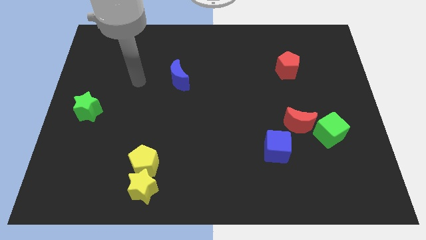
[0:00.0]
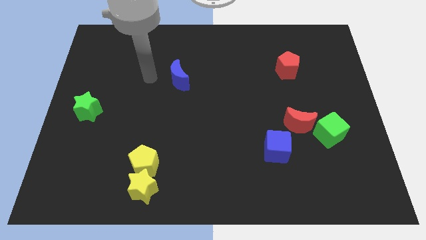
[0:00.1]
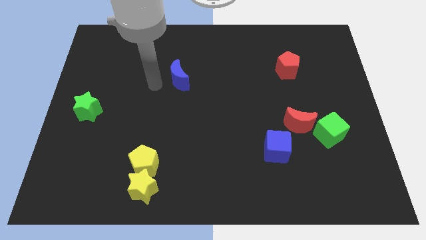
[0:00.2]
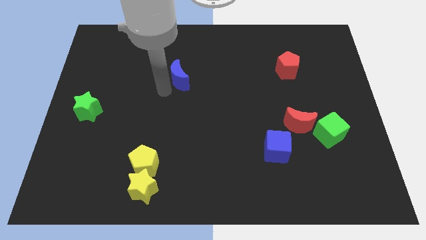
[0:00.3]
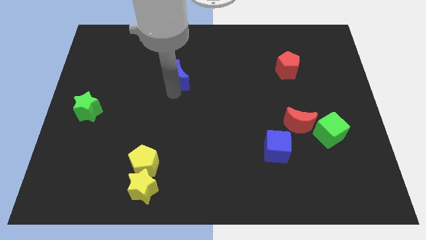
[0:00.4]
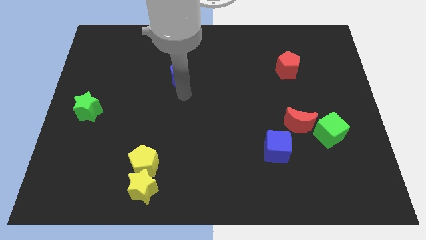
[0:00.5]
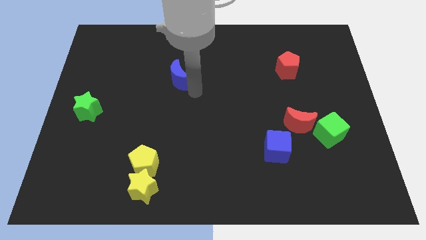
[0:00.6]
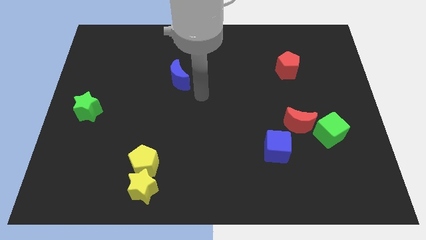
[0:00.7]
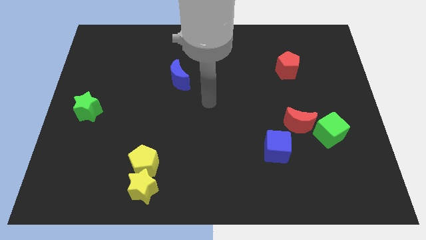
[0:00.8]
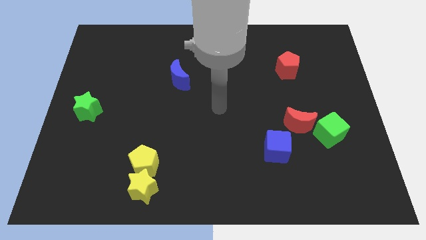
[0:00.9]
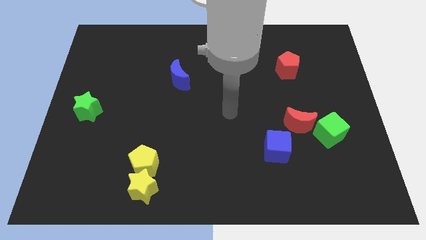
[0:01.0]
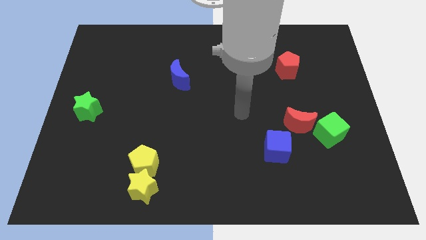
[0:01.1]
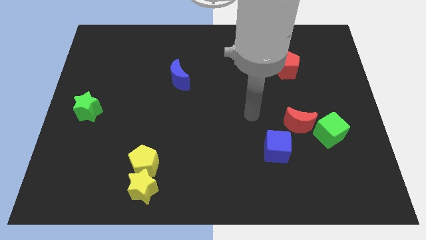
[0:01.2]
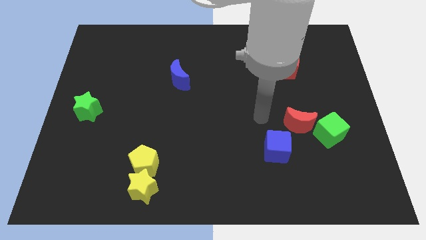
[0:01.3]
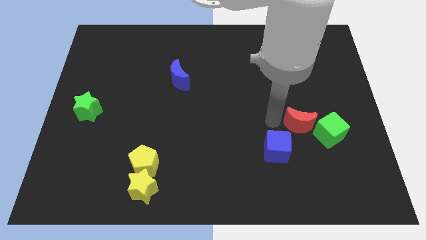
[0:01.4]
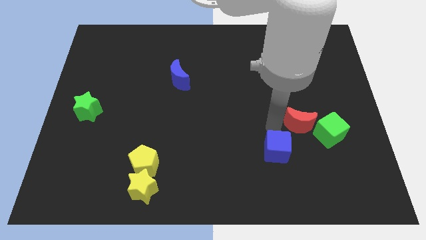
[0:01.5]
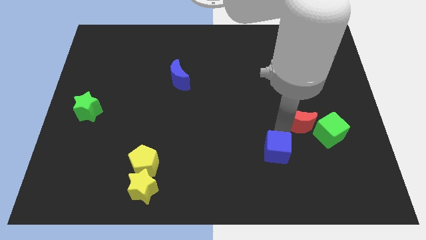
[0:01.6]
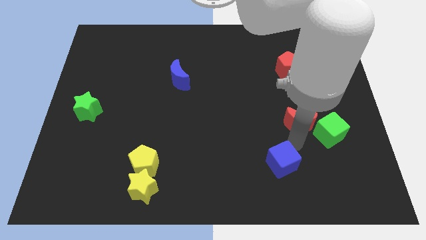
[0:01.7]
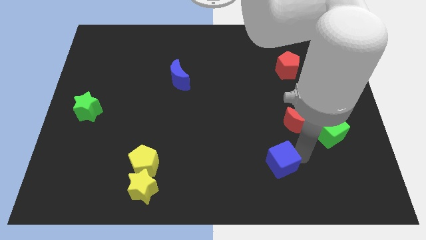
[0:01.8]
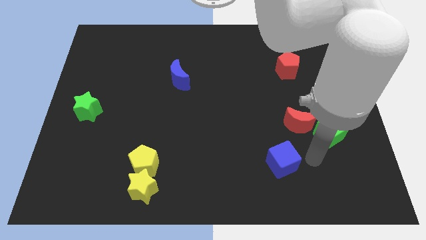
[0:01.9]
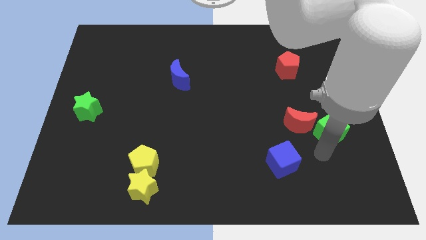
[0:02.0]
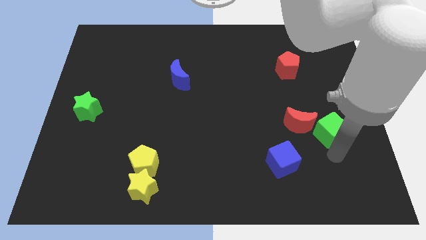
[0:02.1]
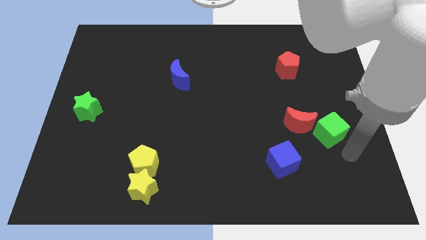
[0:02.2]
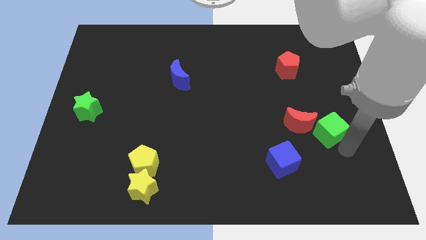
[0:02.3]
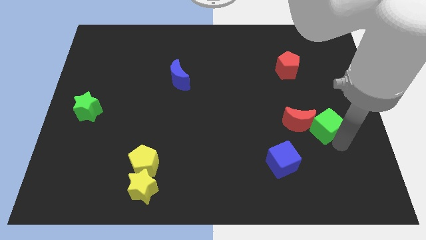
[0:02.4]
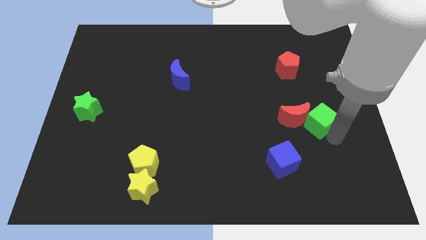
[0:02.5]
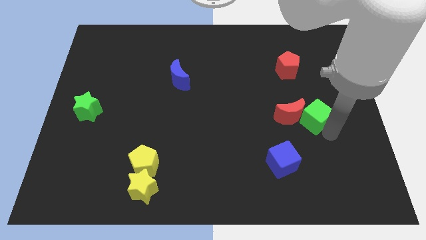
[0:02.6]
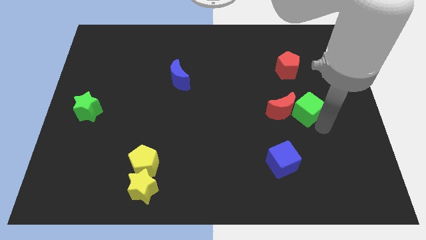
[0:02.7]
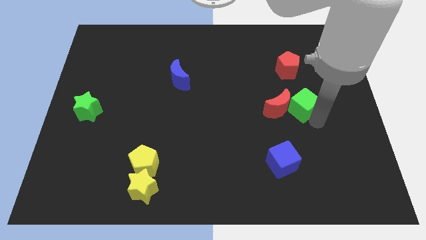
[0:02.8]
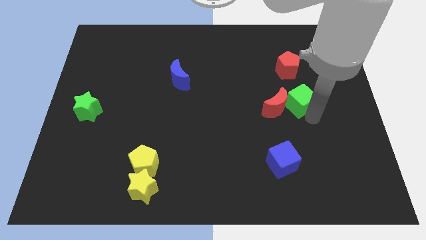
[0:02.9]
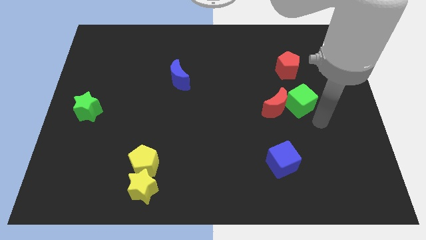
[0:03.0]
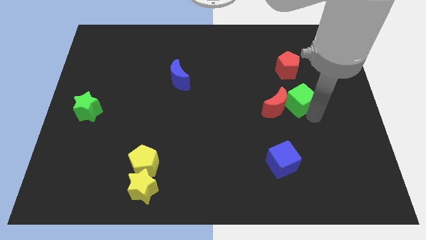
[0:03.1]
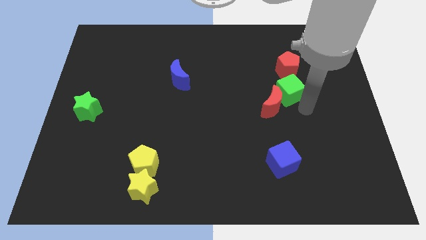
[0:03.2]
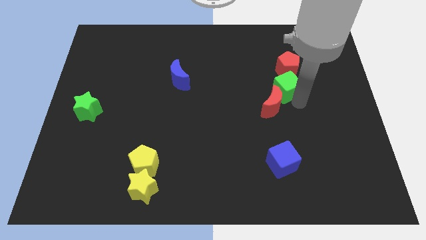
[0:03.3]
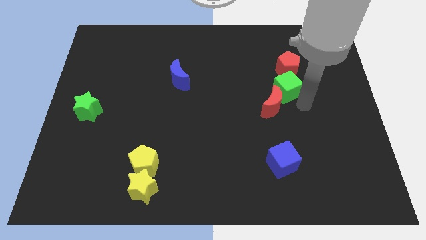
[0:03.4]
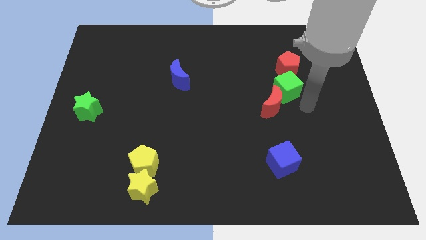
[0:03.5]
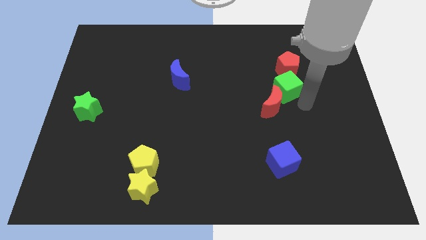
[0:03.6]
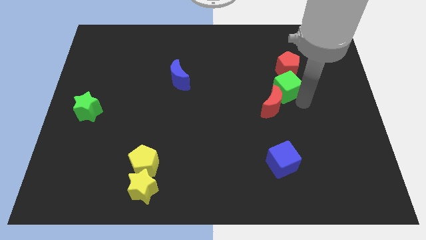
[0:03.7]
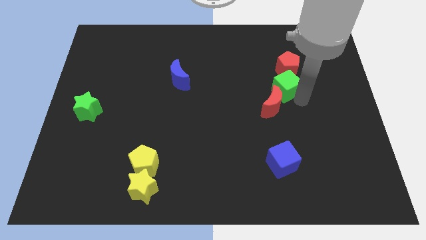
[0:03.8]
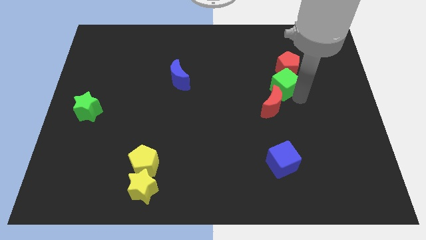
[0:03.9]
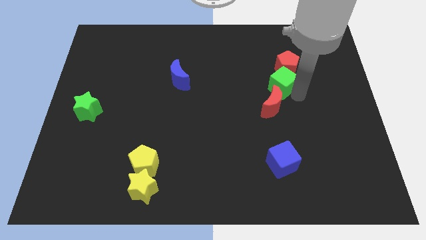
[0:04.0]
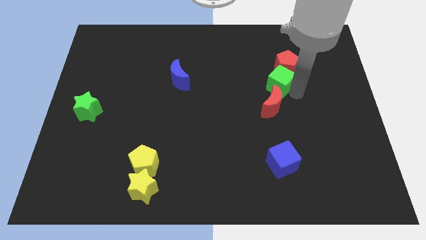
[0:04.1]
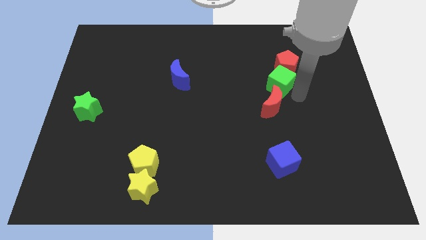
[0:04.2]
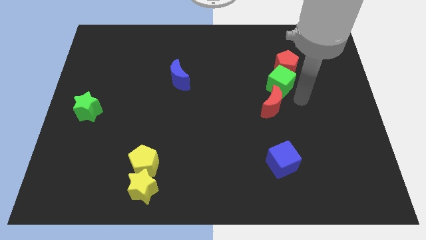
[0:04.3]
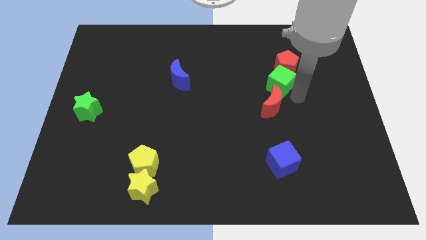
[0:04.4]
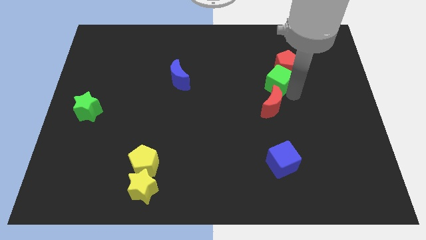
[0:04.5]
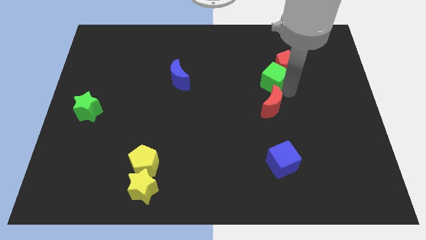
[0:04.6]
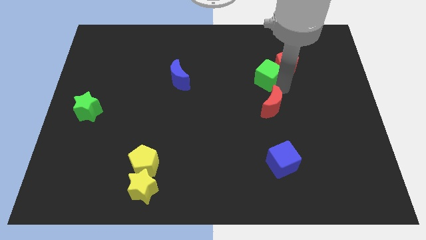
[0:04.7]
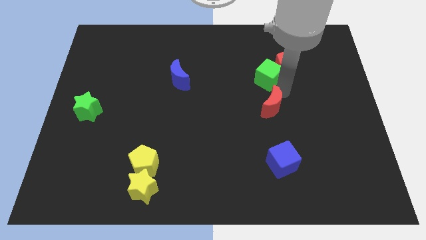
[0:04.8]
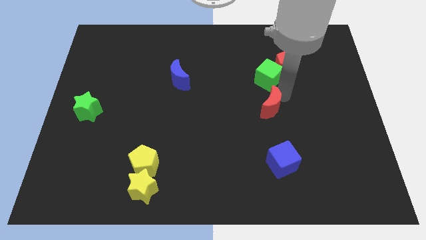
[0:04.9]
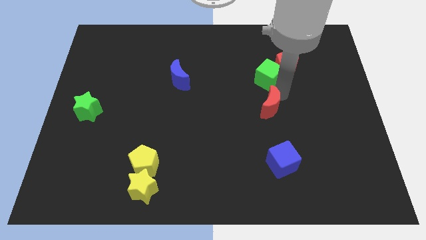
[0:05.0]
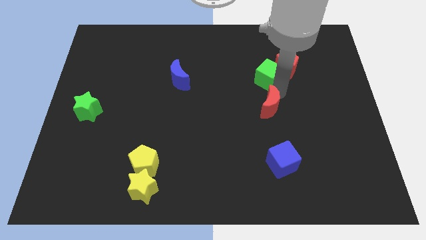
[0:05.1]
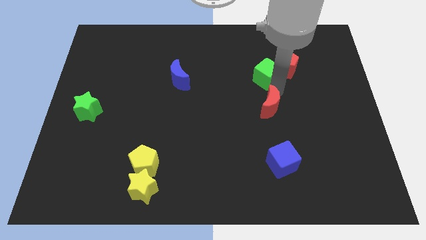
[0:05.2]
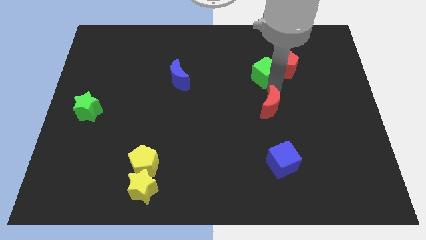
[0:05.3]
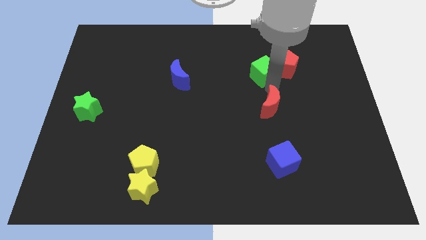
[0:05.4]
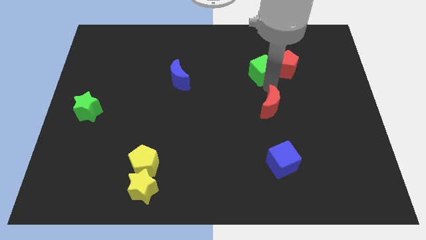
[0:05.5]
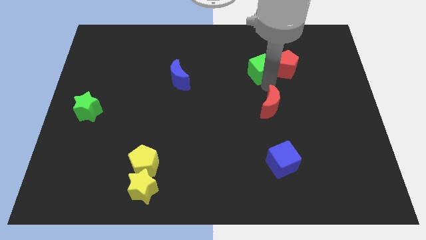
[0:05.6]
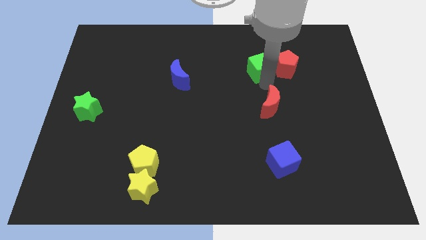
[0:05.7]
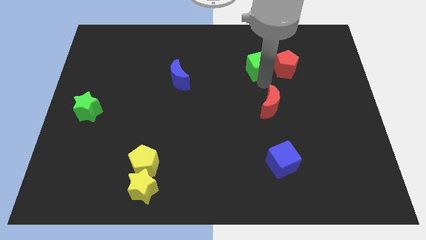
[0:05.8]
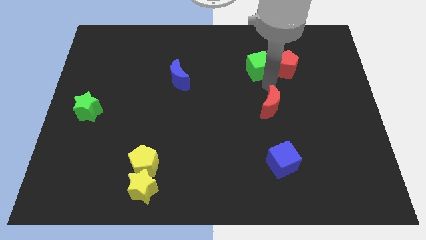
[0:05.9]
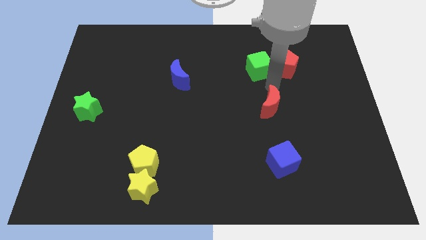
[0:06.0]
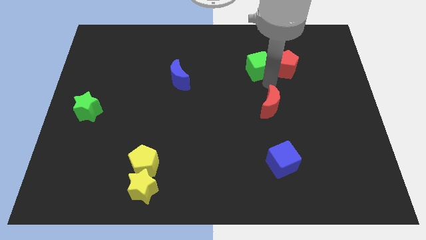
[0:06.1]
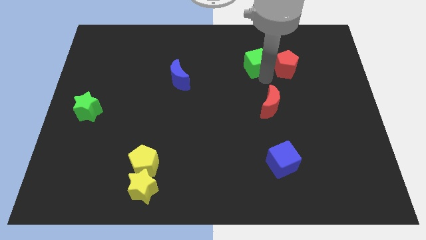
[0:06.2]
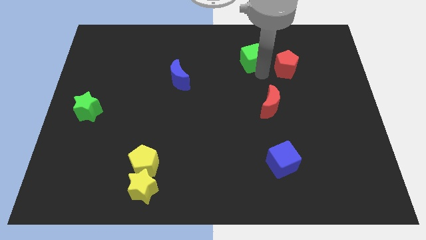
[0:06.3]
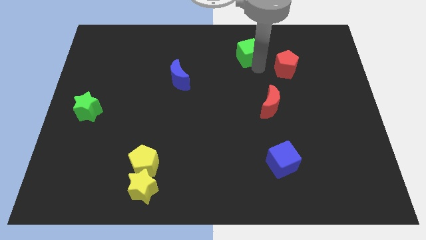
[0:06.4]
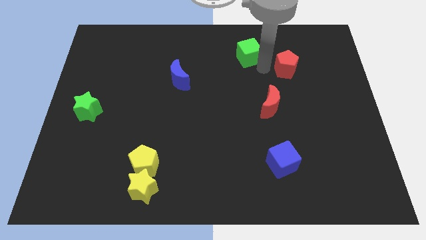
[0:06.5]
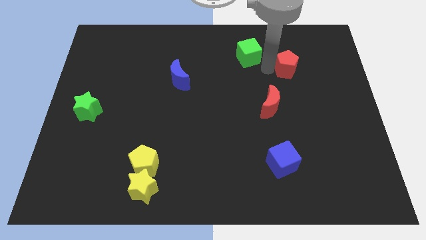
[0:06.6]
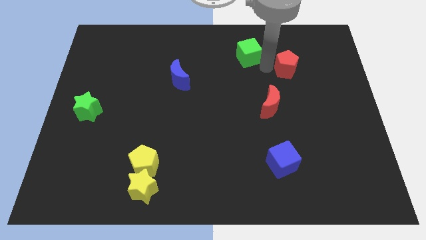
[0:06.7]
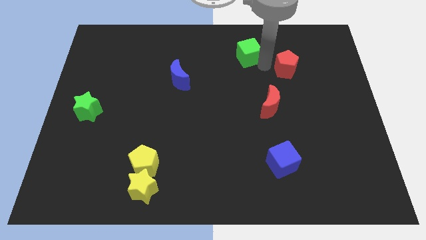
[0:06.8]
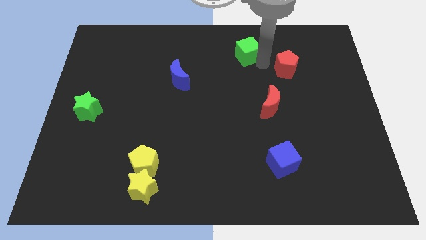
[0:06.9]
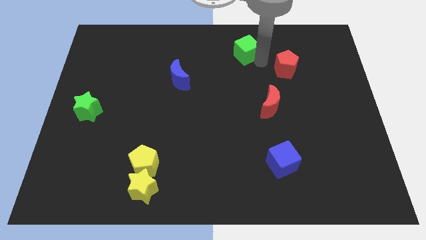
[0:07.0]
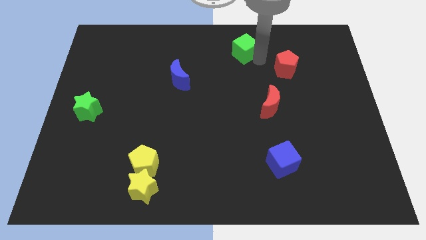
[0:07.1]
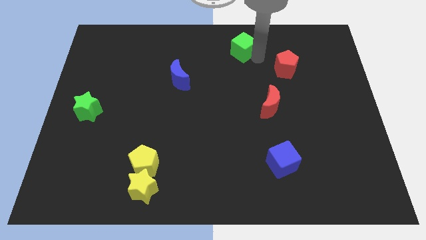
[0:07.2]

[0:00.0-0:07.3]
slide the green cube to the towards your base
